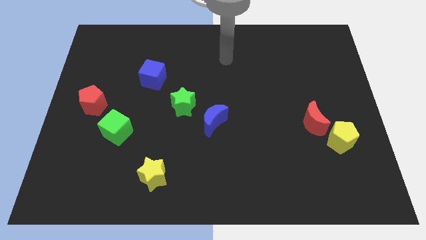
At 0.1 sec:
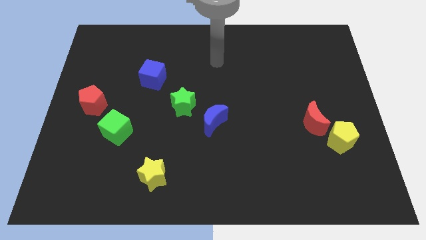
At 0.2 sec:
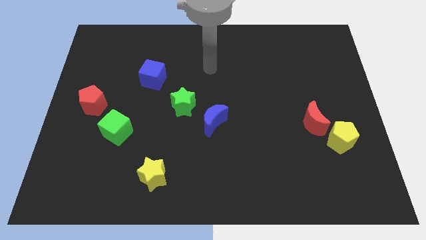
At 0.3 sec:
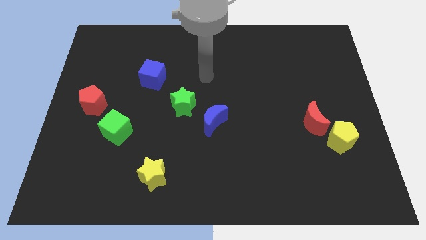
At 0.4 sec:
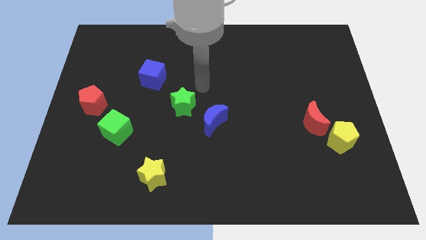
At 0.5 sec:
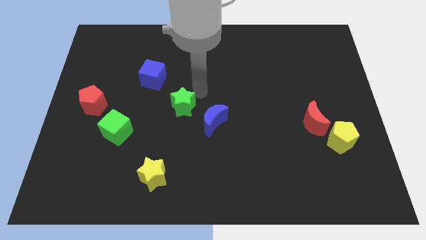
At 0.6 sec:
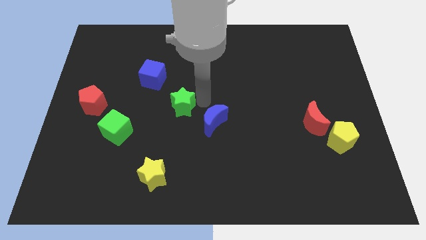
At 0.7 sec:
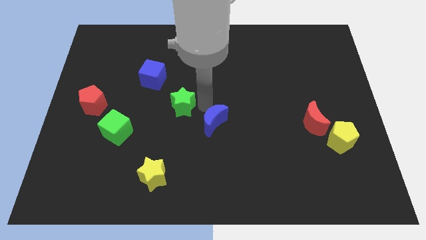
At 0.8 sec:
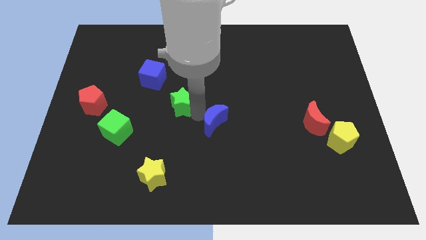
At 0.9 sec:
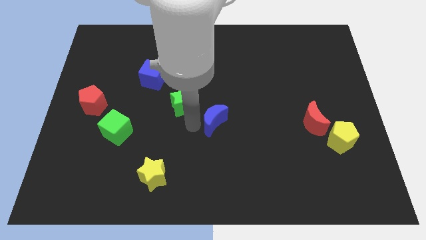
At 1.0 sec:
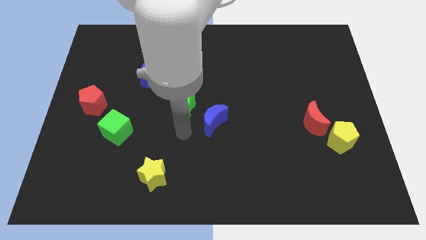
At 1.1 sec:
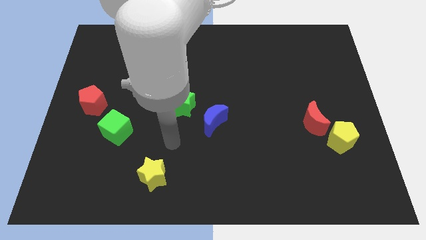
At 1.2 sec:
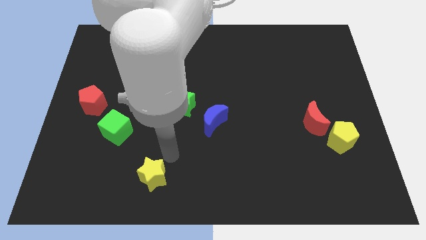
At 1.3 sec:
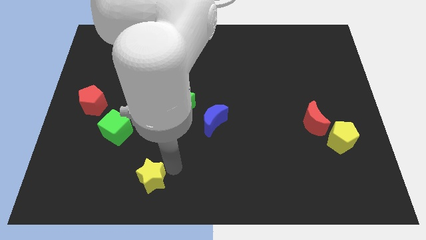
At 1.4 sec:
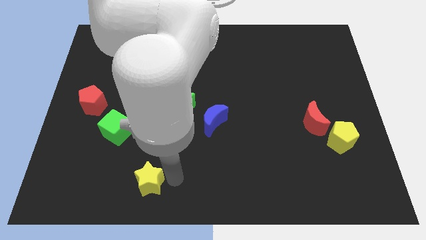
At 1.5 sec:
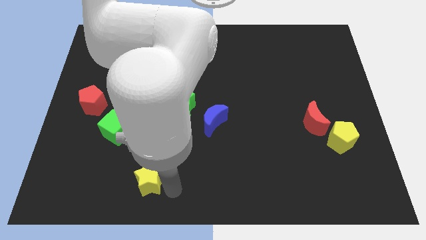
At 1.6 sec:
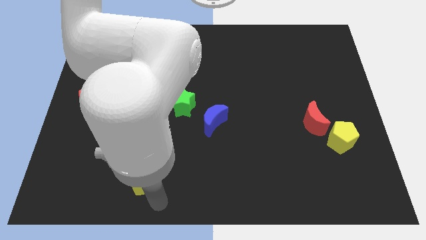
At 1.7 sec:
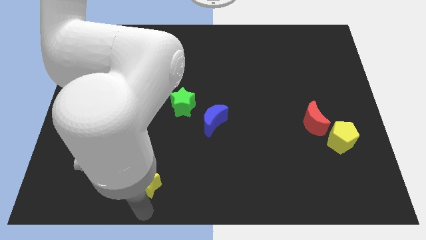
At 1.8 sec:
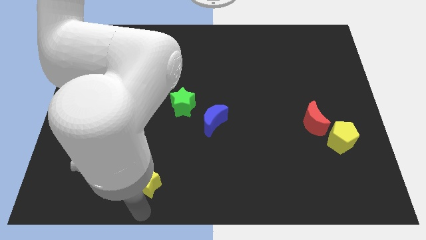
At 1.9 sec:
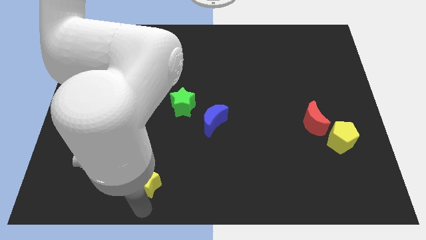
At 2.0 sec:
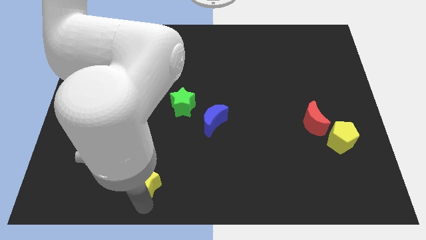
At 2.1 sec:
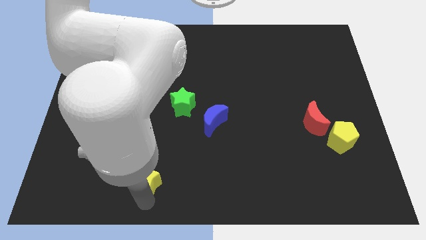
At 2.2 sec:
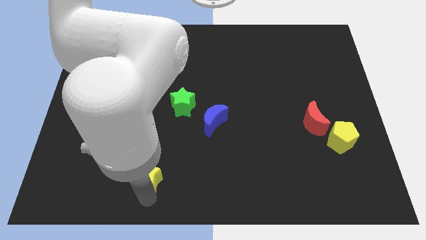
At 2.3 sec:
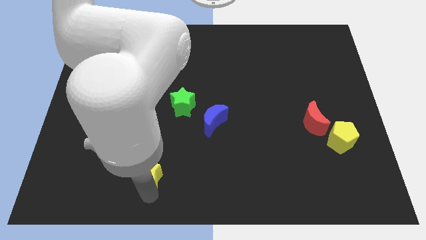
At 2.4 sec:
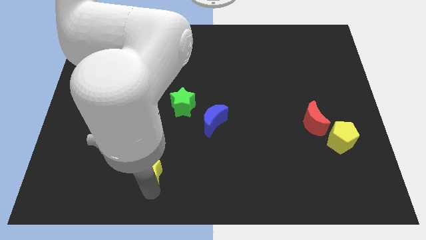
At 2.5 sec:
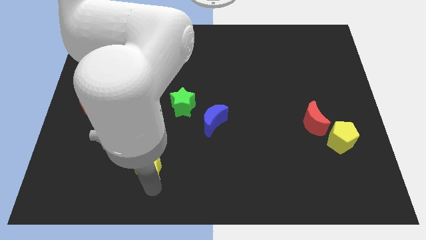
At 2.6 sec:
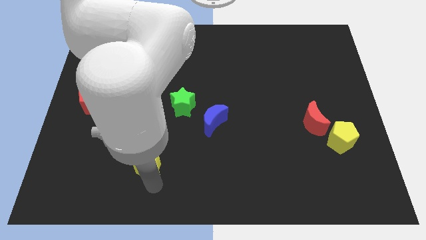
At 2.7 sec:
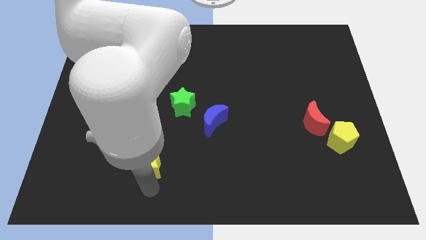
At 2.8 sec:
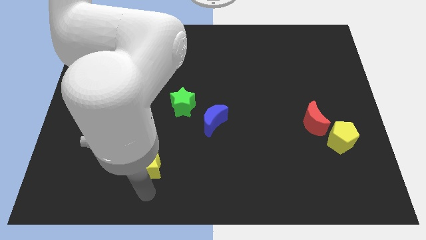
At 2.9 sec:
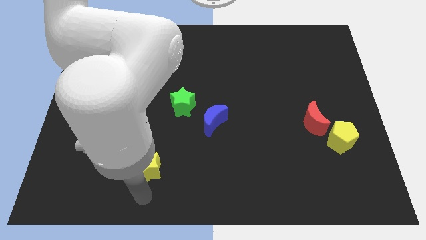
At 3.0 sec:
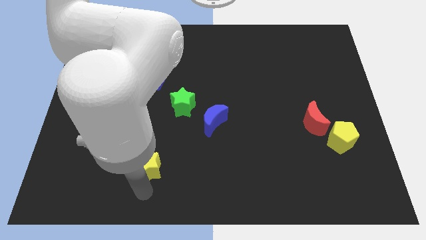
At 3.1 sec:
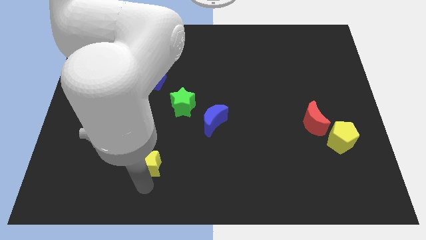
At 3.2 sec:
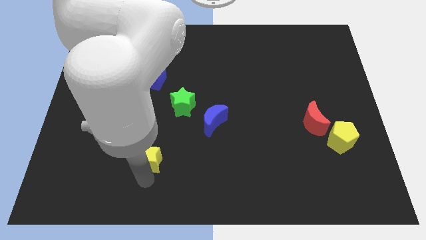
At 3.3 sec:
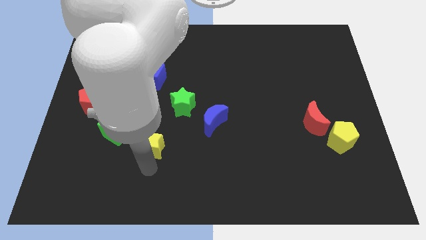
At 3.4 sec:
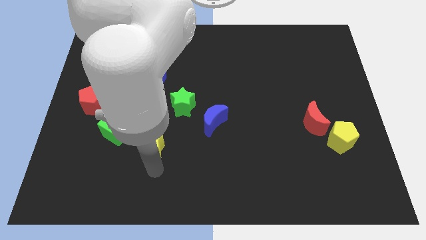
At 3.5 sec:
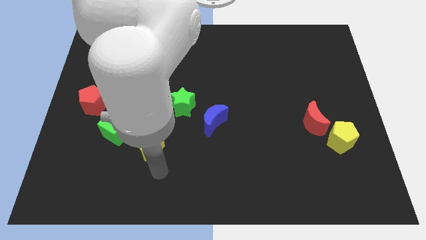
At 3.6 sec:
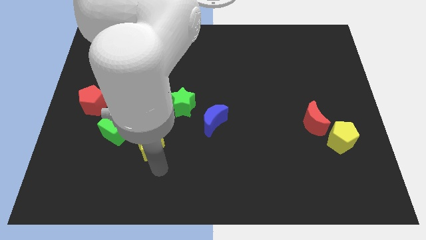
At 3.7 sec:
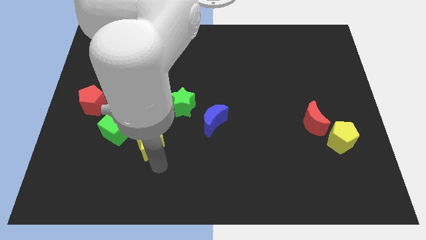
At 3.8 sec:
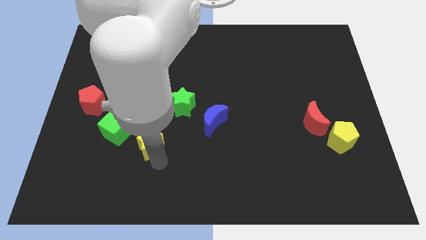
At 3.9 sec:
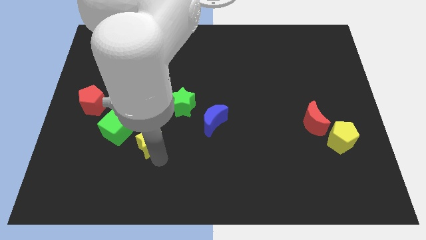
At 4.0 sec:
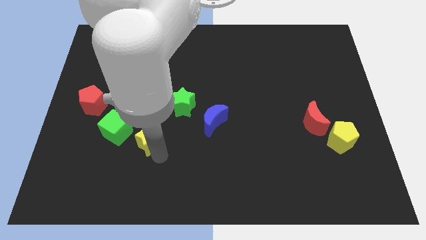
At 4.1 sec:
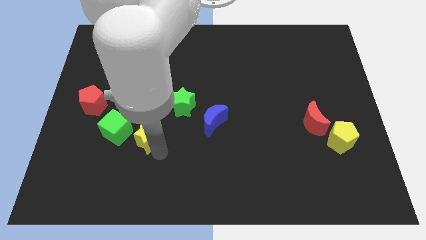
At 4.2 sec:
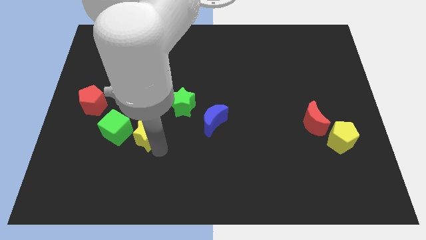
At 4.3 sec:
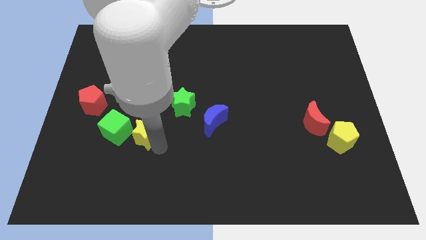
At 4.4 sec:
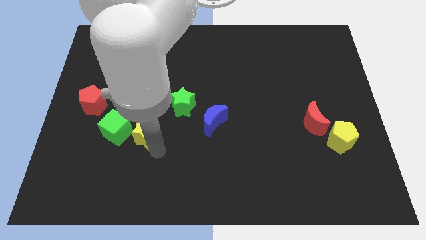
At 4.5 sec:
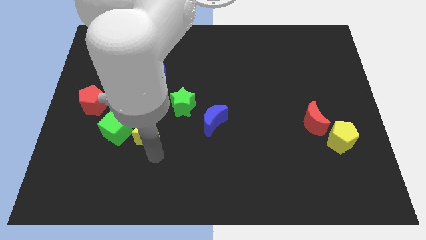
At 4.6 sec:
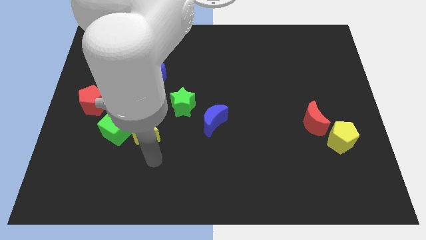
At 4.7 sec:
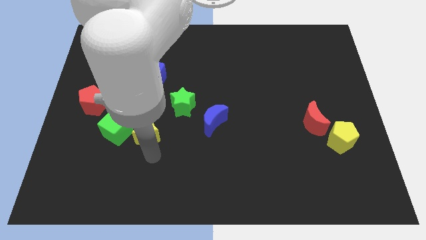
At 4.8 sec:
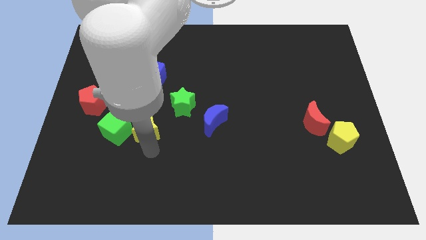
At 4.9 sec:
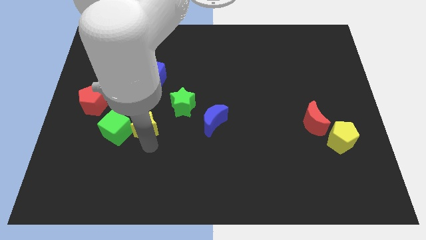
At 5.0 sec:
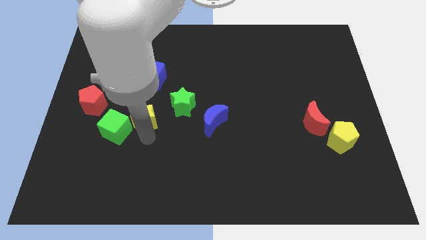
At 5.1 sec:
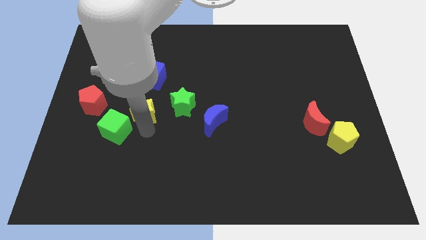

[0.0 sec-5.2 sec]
put the yellow star to the right side of the red pentagon

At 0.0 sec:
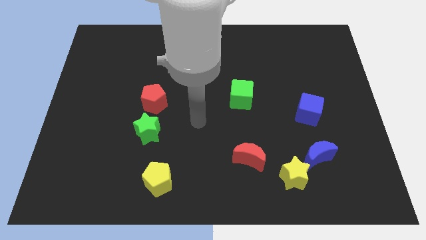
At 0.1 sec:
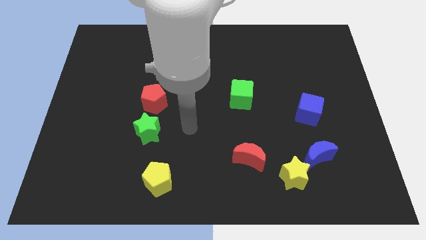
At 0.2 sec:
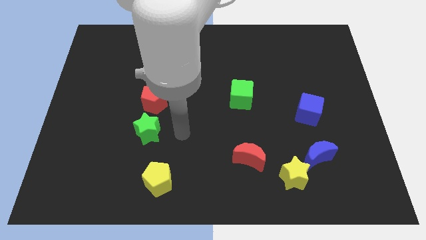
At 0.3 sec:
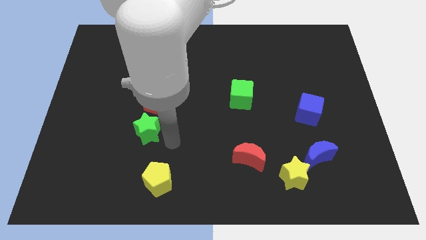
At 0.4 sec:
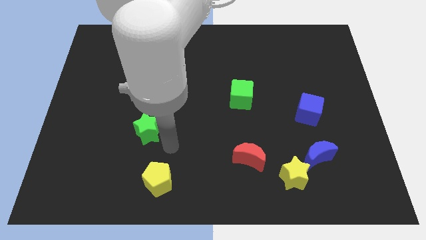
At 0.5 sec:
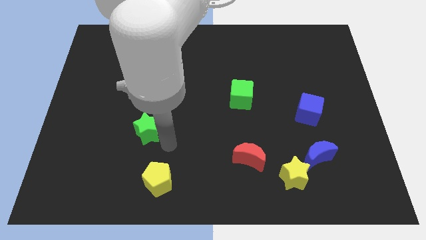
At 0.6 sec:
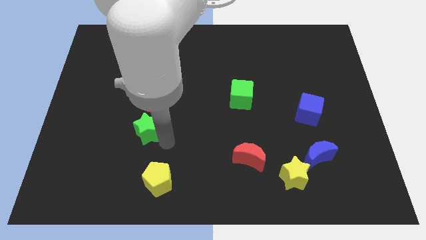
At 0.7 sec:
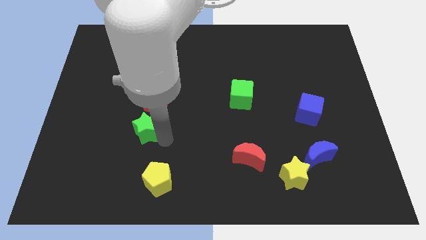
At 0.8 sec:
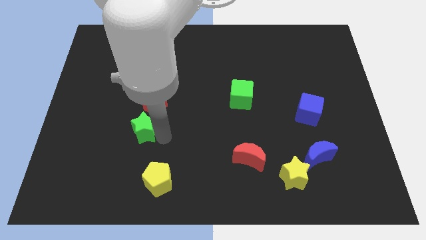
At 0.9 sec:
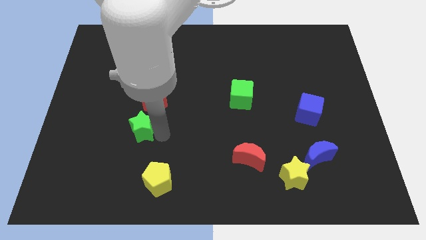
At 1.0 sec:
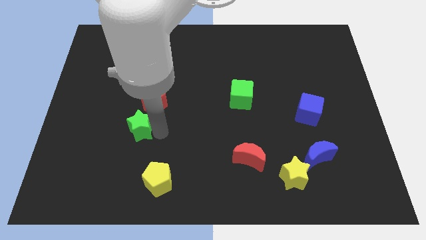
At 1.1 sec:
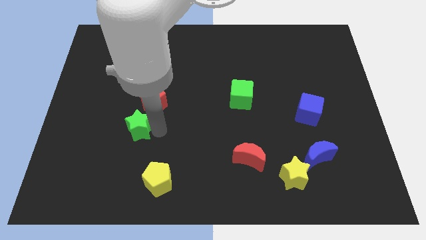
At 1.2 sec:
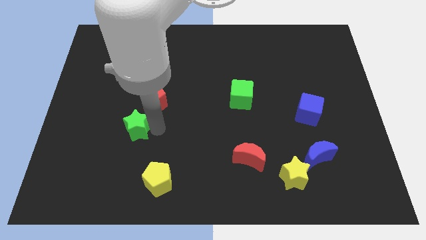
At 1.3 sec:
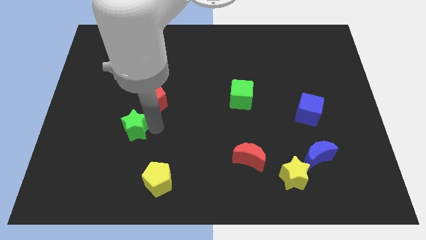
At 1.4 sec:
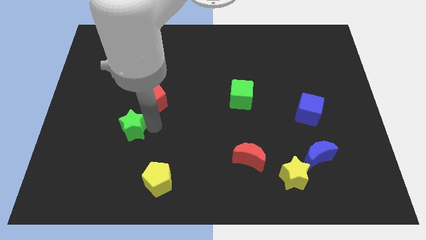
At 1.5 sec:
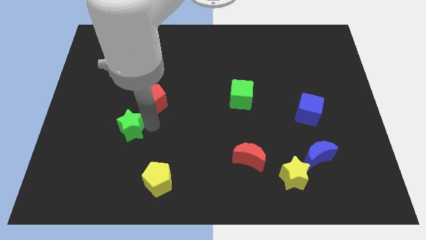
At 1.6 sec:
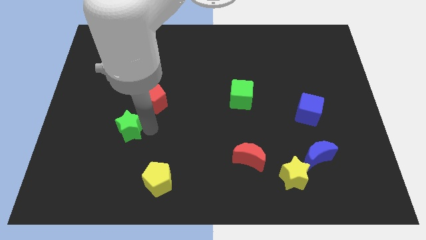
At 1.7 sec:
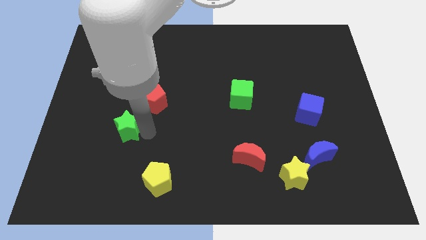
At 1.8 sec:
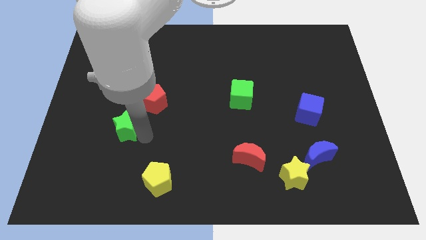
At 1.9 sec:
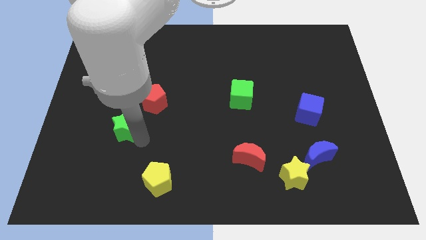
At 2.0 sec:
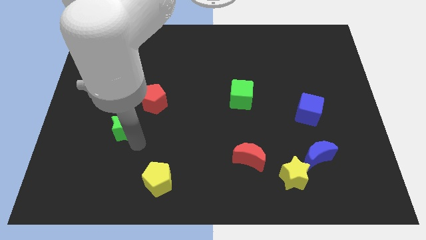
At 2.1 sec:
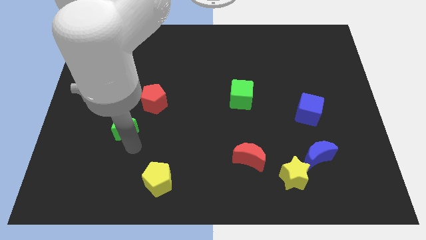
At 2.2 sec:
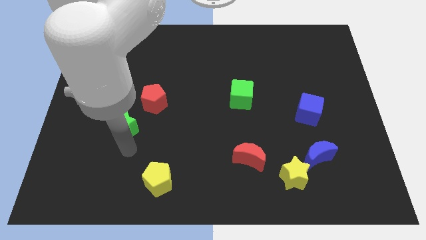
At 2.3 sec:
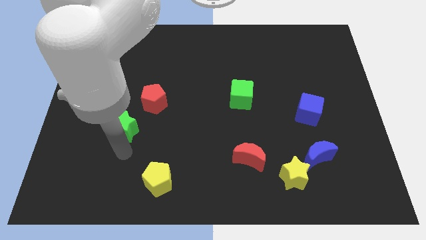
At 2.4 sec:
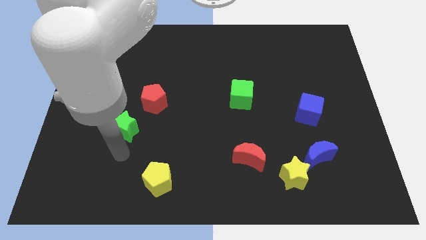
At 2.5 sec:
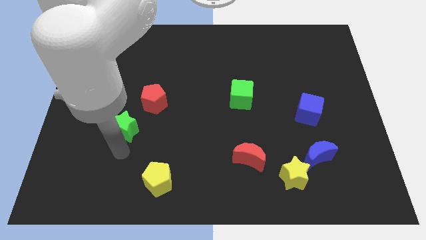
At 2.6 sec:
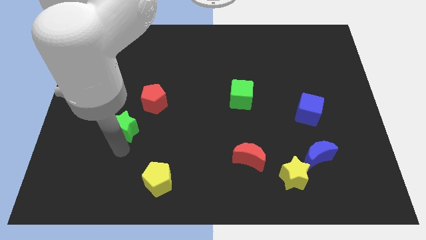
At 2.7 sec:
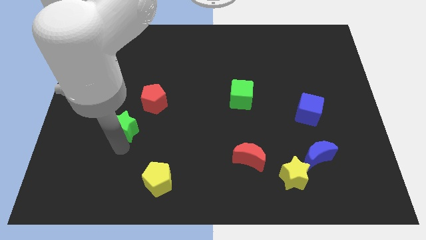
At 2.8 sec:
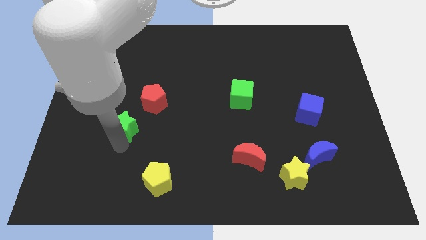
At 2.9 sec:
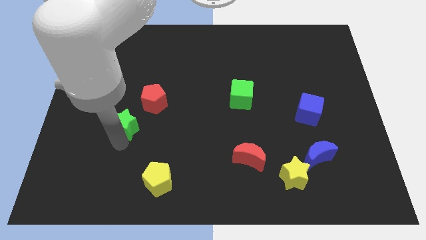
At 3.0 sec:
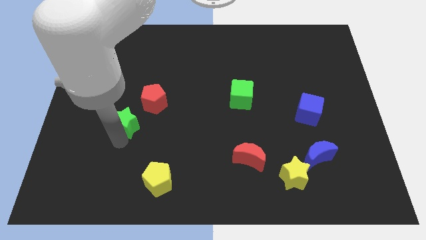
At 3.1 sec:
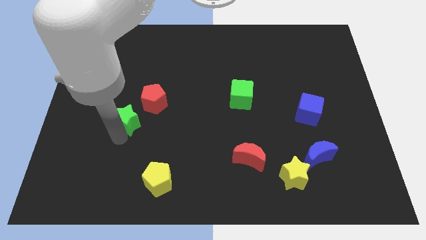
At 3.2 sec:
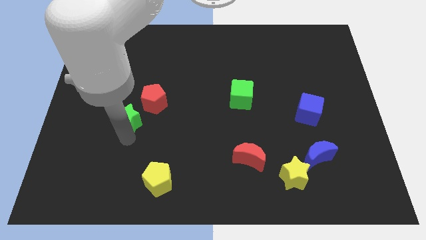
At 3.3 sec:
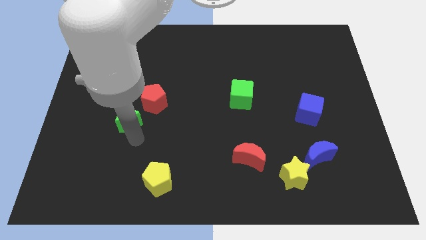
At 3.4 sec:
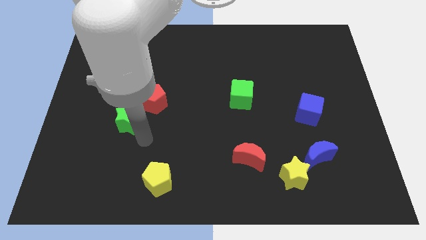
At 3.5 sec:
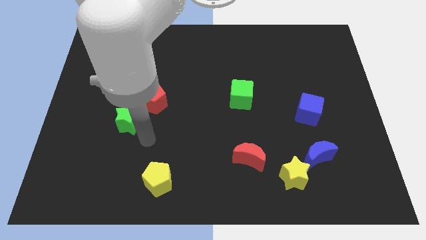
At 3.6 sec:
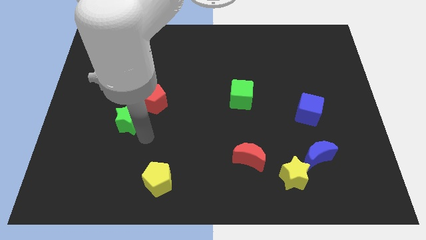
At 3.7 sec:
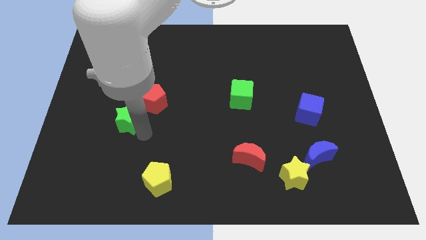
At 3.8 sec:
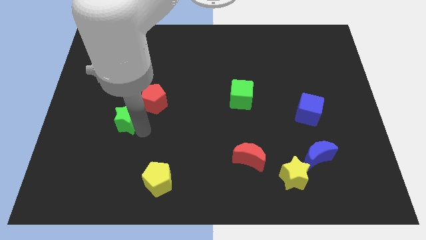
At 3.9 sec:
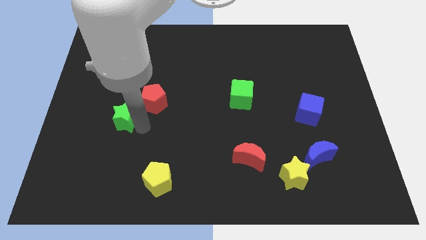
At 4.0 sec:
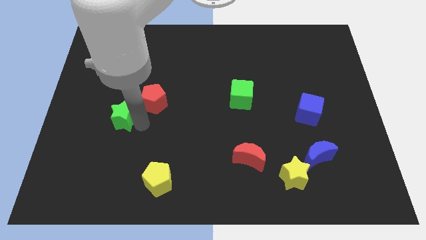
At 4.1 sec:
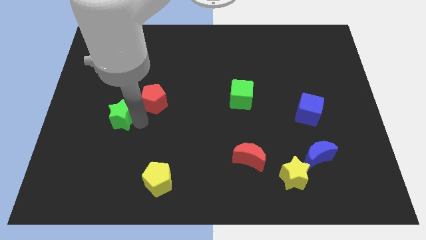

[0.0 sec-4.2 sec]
put the green star left of the red pentagon
